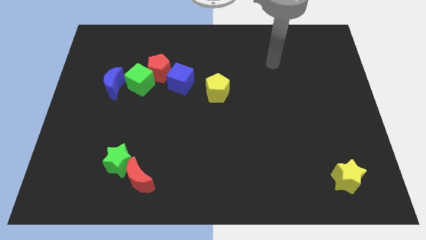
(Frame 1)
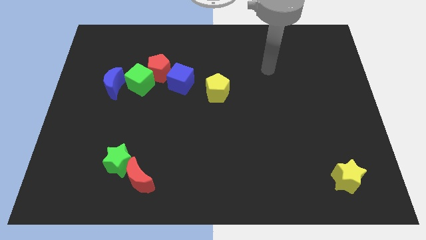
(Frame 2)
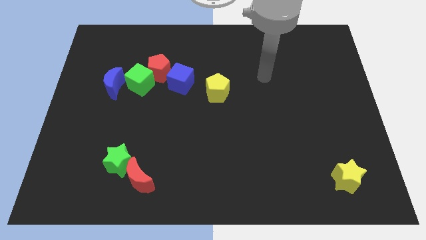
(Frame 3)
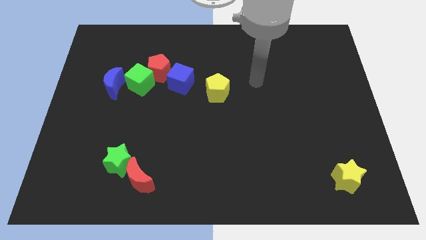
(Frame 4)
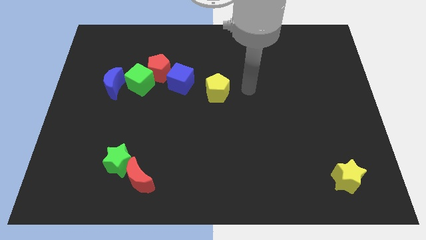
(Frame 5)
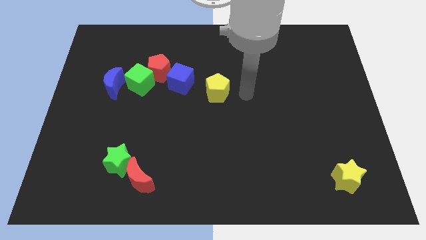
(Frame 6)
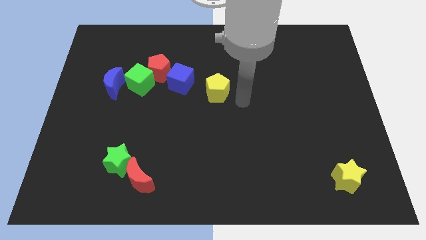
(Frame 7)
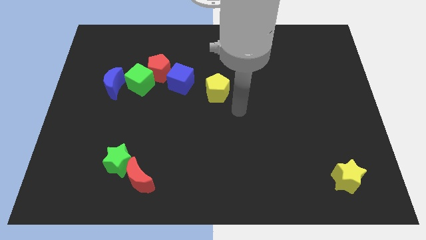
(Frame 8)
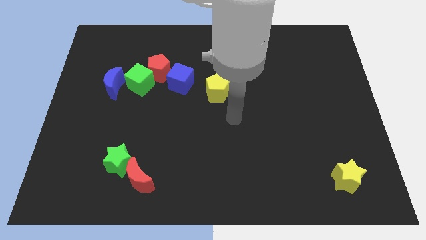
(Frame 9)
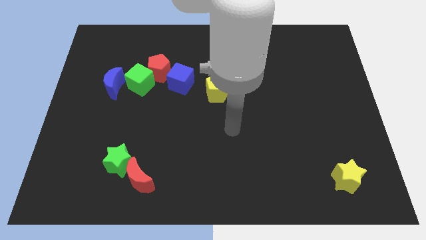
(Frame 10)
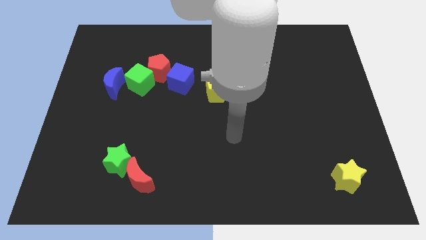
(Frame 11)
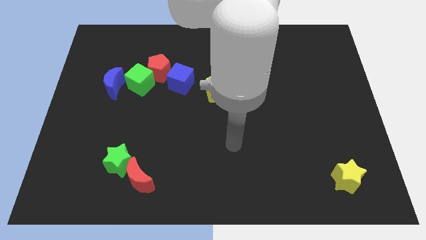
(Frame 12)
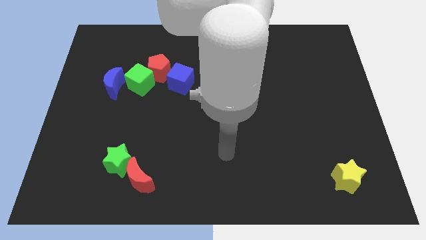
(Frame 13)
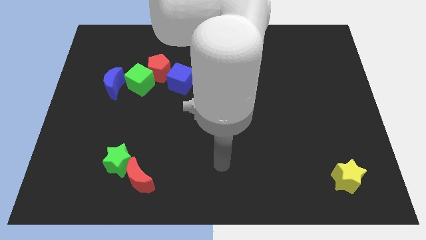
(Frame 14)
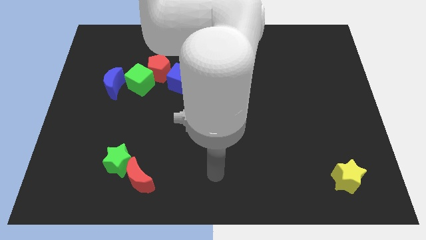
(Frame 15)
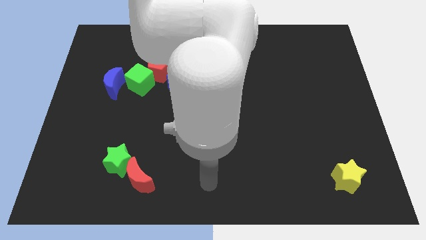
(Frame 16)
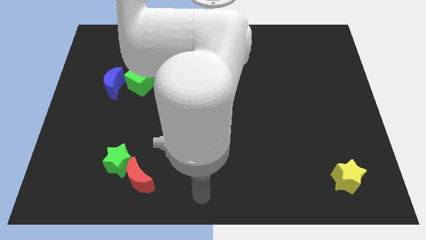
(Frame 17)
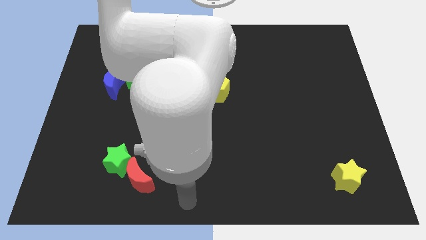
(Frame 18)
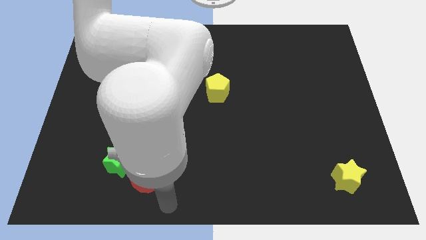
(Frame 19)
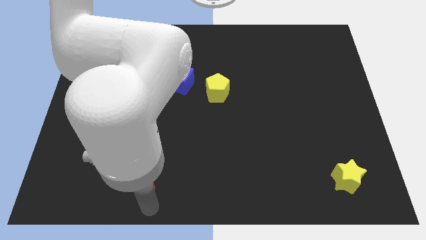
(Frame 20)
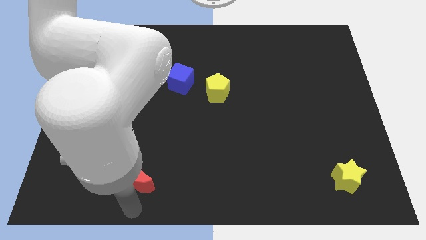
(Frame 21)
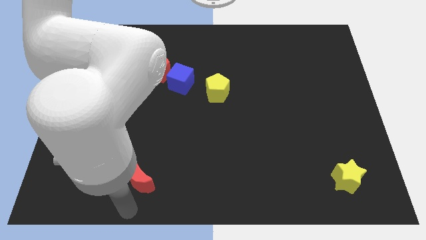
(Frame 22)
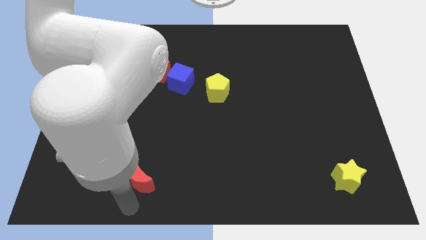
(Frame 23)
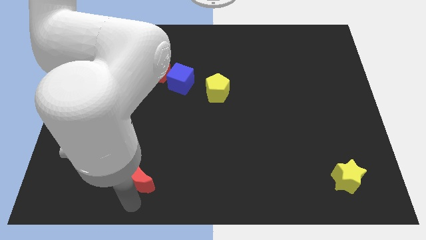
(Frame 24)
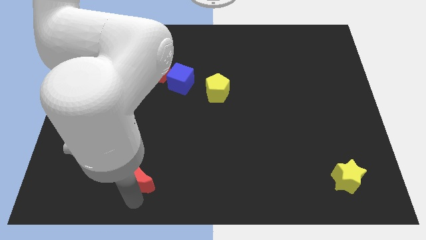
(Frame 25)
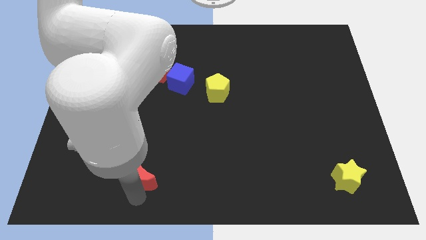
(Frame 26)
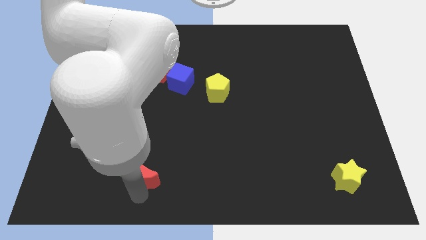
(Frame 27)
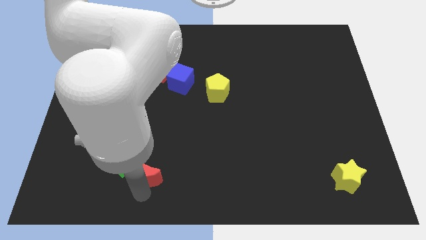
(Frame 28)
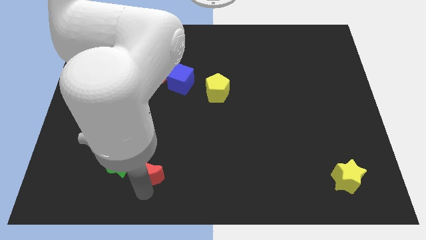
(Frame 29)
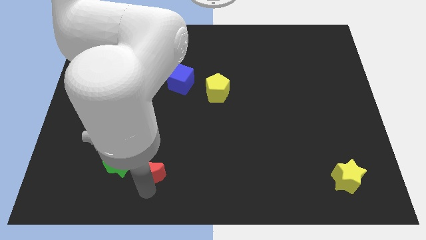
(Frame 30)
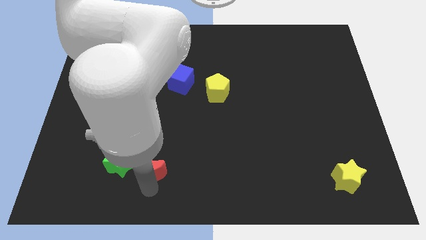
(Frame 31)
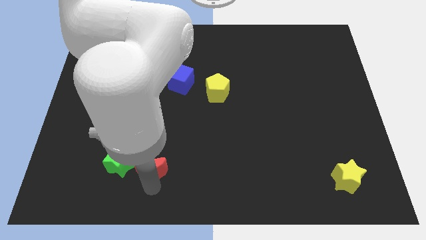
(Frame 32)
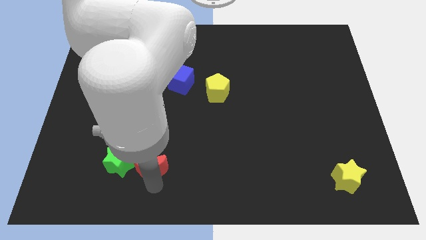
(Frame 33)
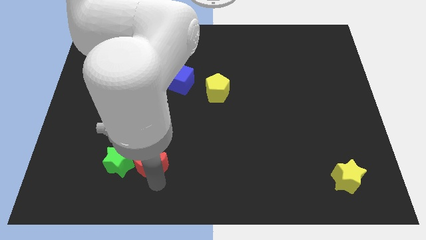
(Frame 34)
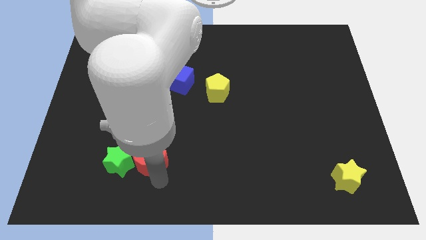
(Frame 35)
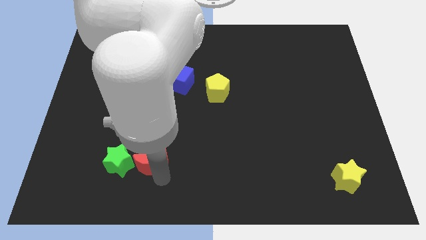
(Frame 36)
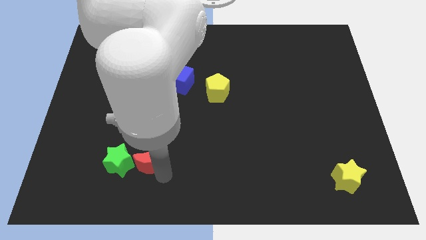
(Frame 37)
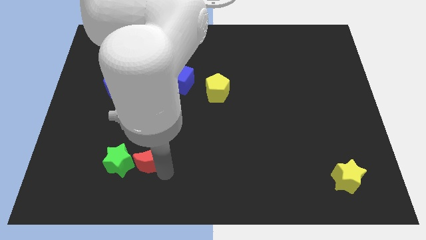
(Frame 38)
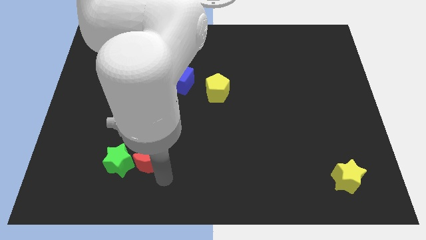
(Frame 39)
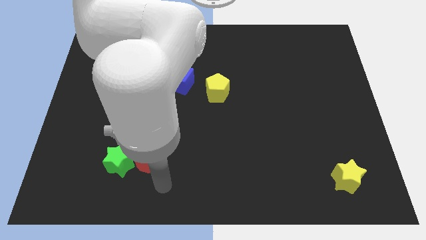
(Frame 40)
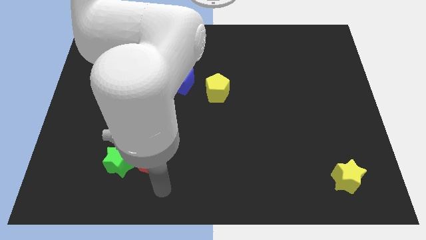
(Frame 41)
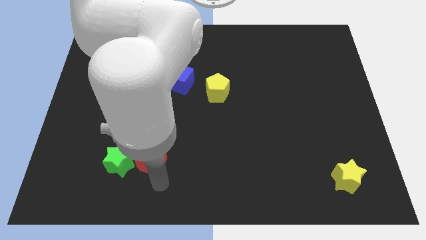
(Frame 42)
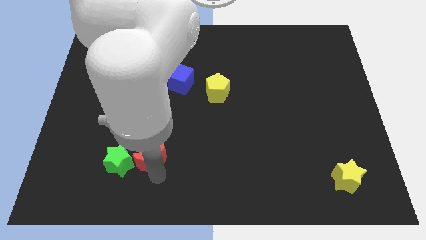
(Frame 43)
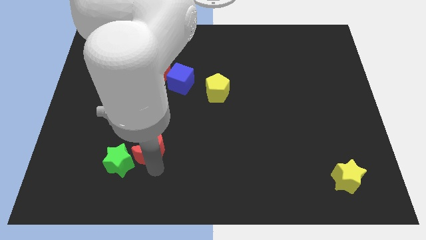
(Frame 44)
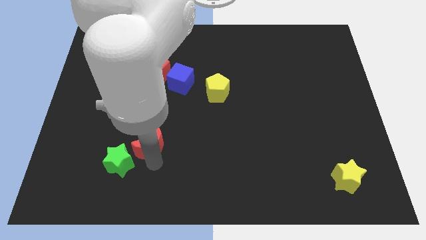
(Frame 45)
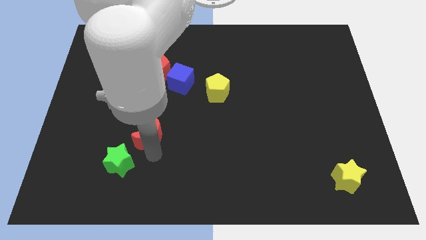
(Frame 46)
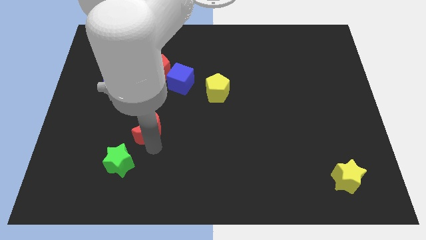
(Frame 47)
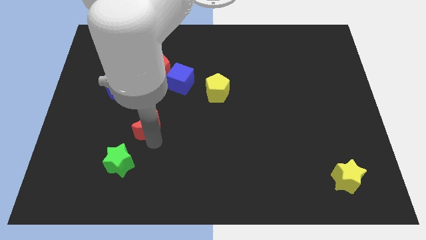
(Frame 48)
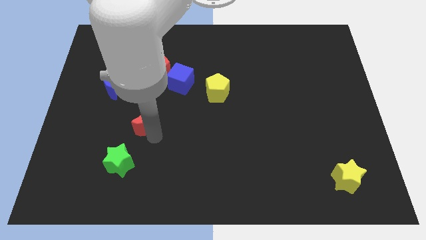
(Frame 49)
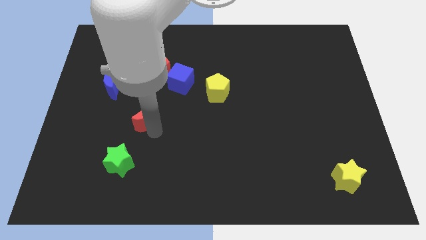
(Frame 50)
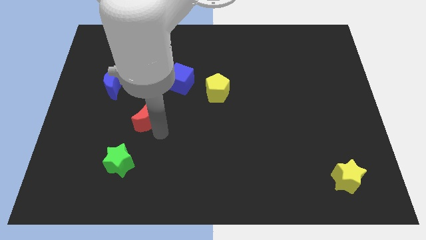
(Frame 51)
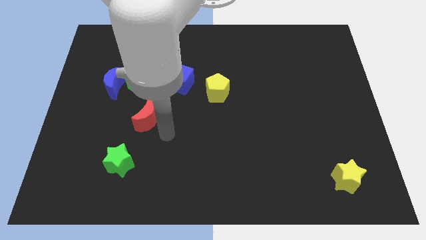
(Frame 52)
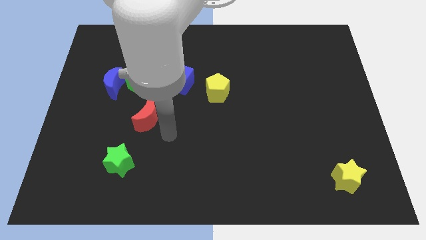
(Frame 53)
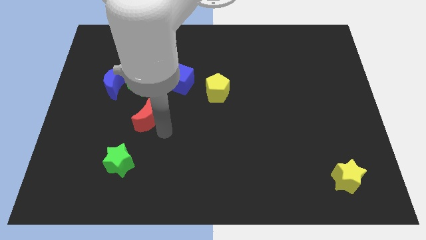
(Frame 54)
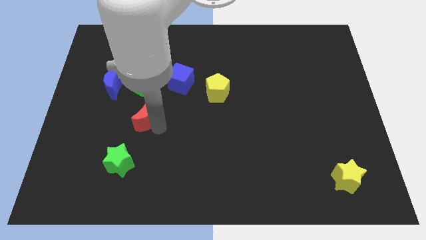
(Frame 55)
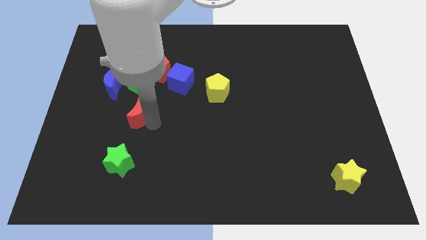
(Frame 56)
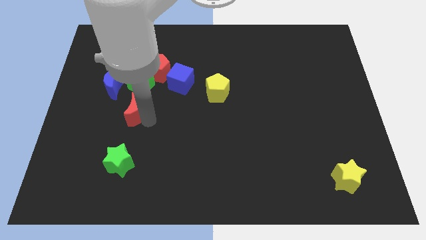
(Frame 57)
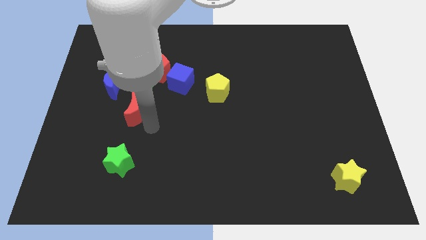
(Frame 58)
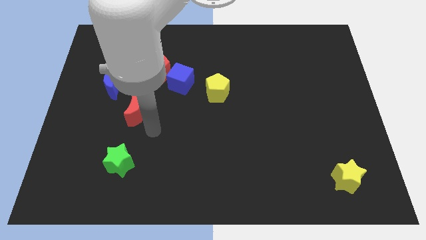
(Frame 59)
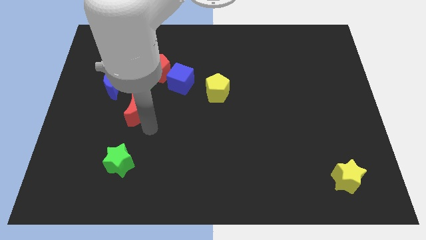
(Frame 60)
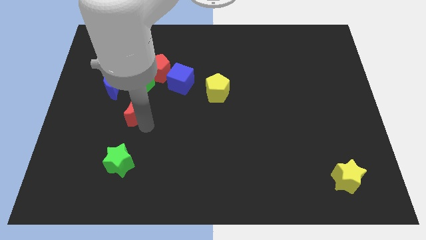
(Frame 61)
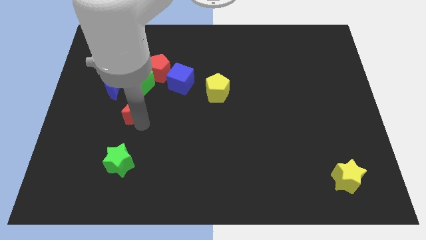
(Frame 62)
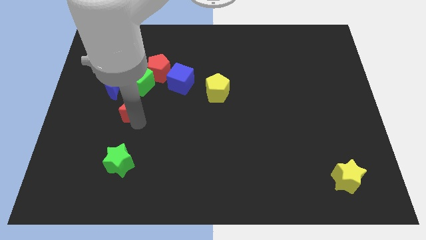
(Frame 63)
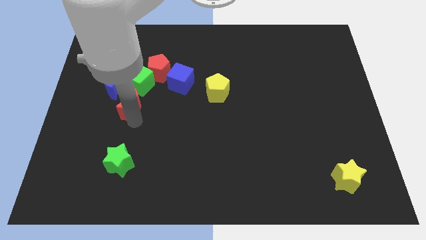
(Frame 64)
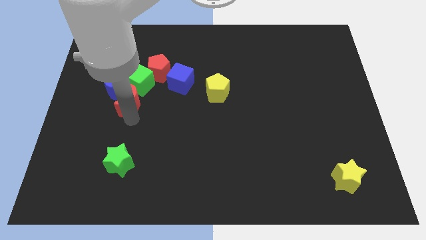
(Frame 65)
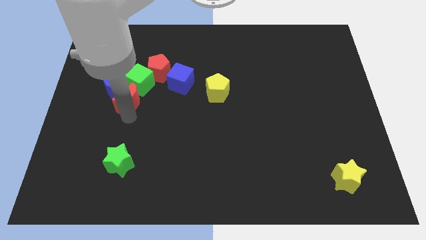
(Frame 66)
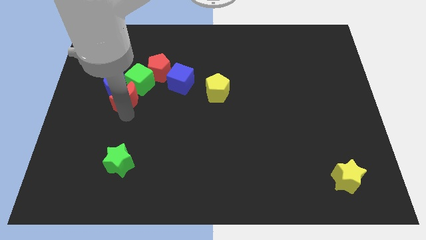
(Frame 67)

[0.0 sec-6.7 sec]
slide the red moon next to the blue moon
